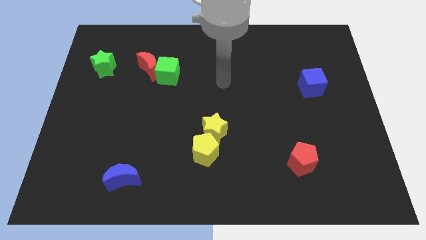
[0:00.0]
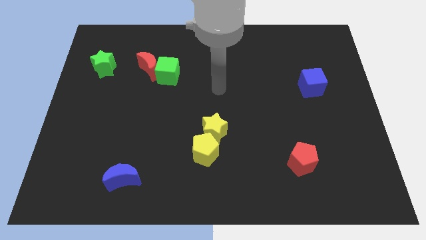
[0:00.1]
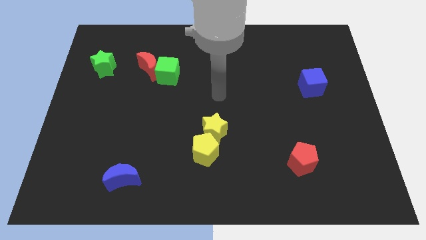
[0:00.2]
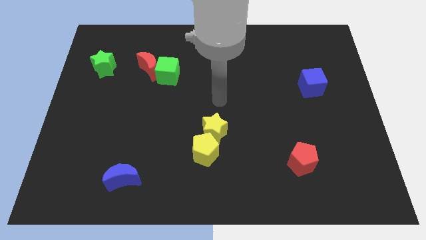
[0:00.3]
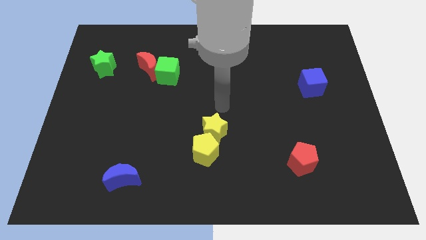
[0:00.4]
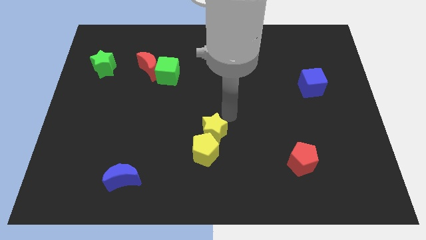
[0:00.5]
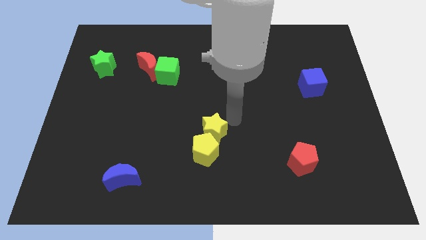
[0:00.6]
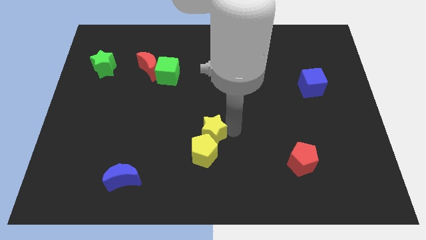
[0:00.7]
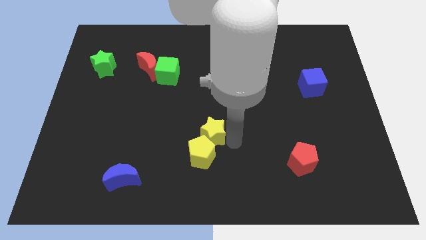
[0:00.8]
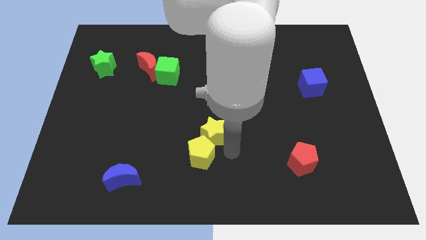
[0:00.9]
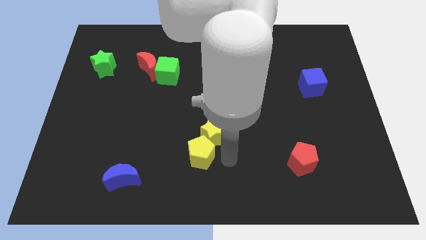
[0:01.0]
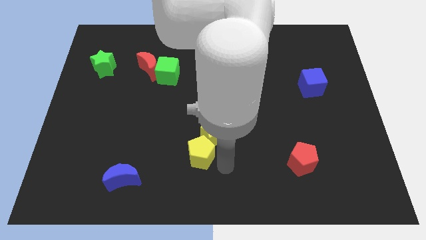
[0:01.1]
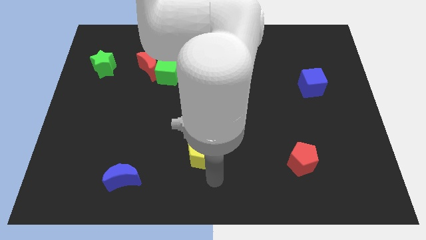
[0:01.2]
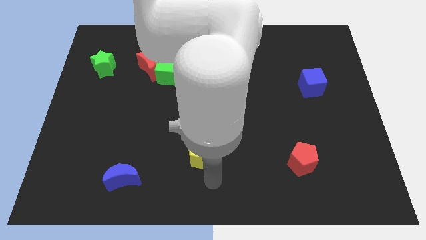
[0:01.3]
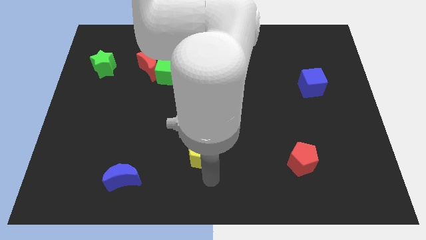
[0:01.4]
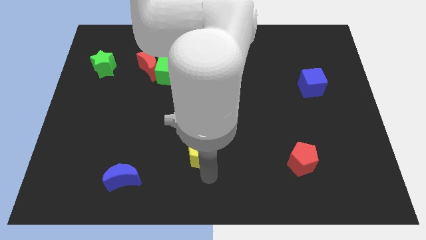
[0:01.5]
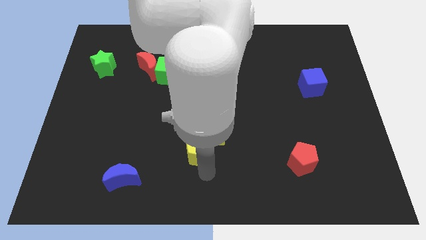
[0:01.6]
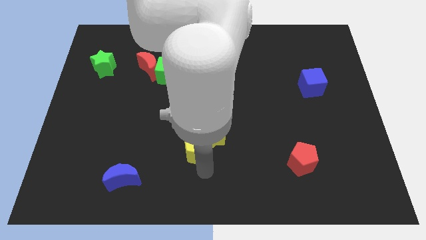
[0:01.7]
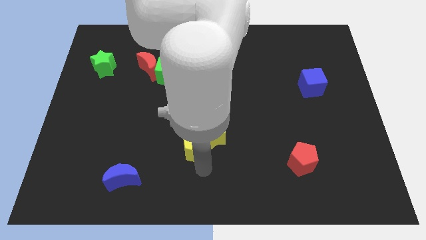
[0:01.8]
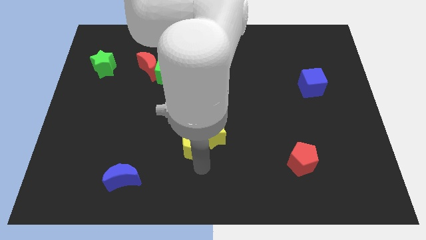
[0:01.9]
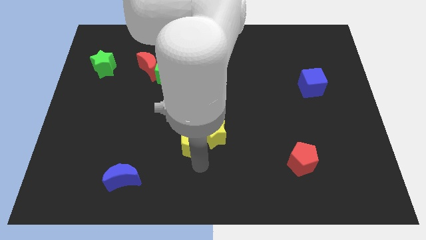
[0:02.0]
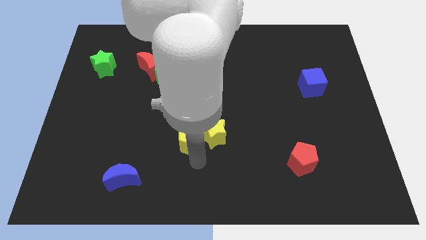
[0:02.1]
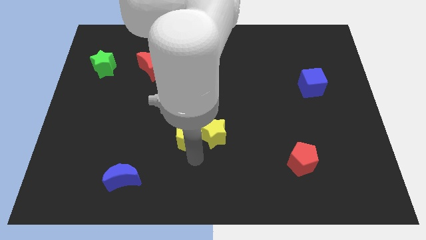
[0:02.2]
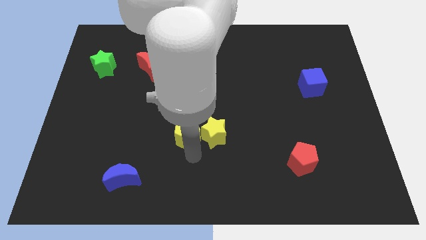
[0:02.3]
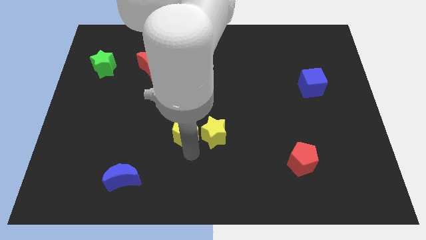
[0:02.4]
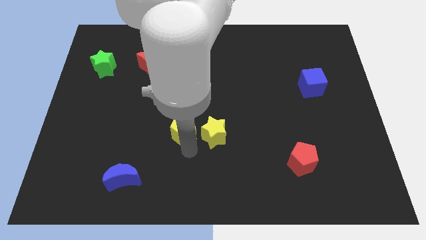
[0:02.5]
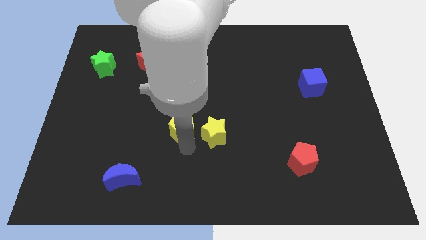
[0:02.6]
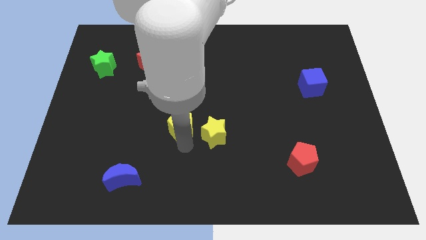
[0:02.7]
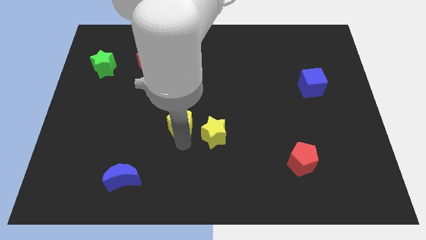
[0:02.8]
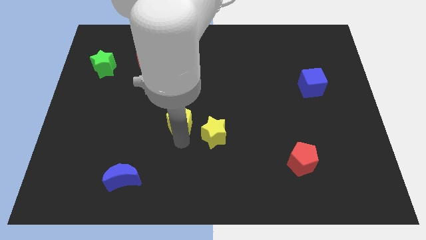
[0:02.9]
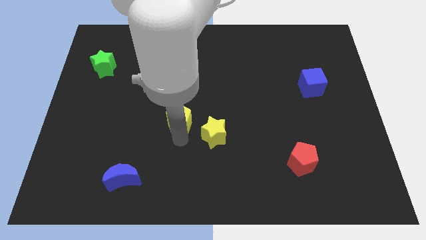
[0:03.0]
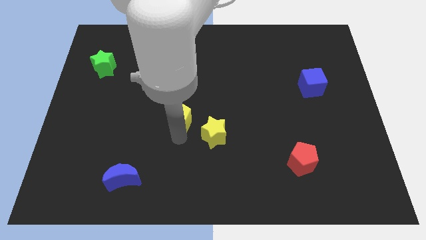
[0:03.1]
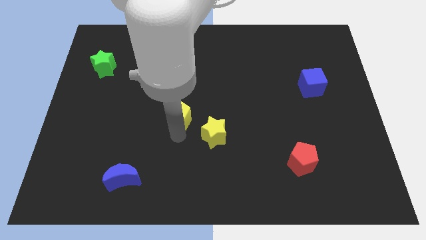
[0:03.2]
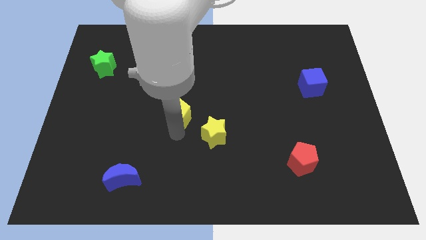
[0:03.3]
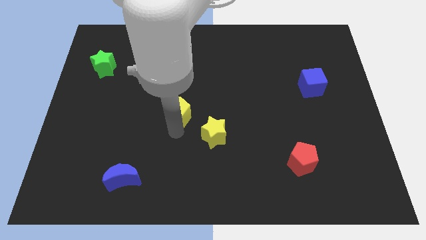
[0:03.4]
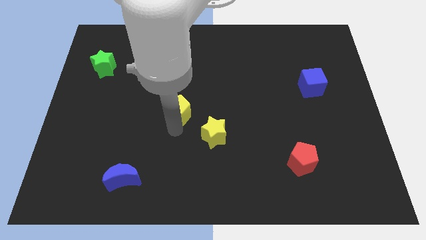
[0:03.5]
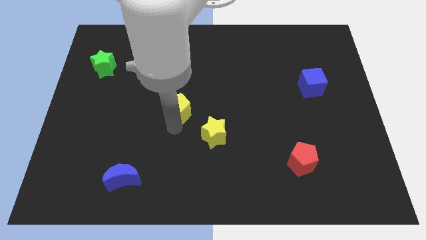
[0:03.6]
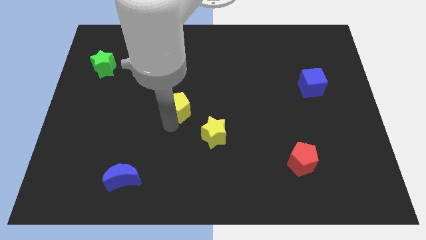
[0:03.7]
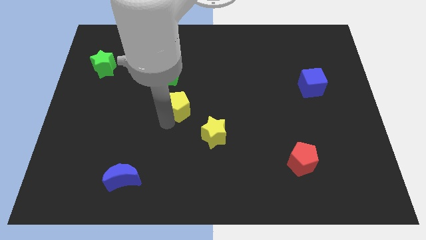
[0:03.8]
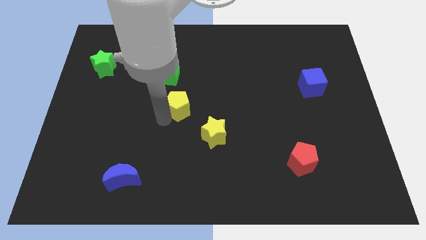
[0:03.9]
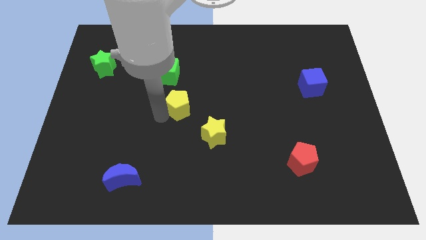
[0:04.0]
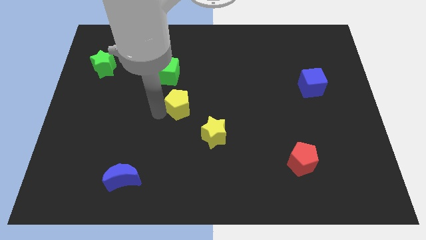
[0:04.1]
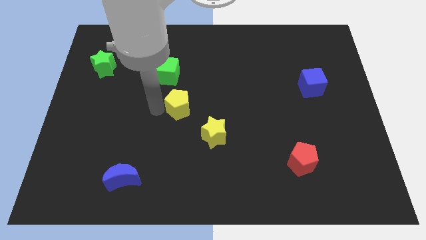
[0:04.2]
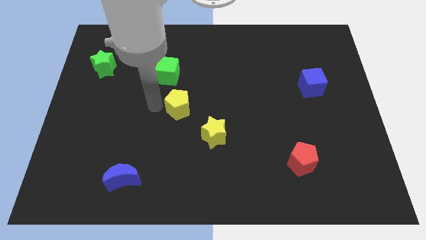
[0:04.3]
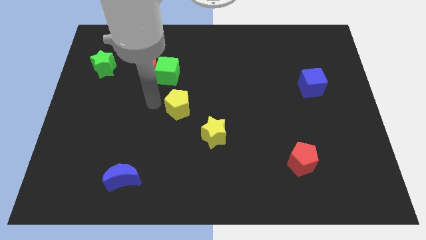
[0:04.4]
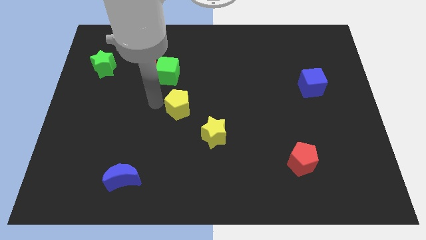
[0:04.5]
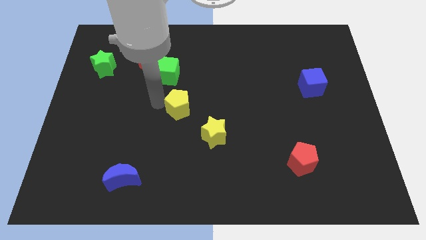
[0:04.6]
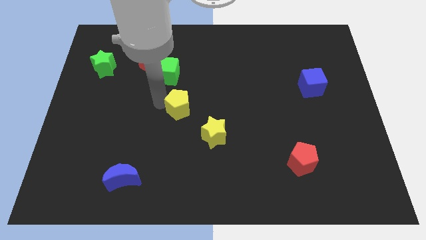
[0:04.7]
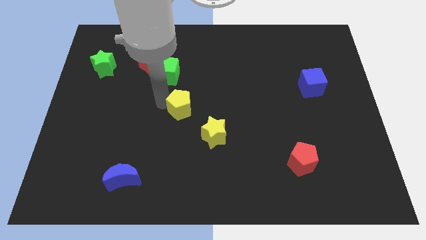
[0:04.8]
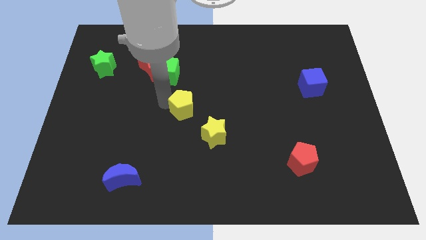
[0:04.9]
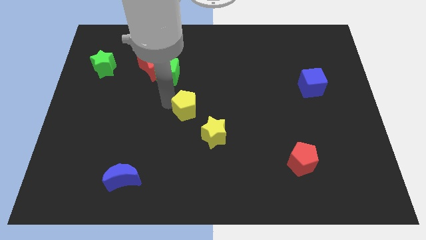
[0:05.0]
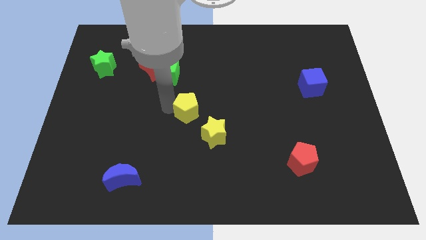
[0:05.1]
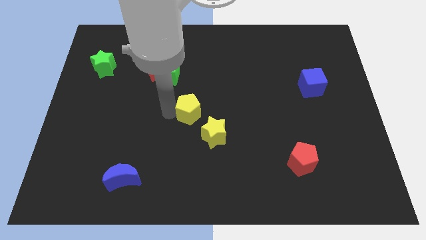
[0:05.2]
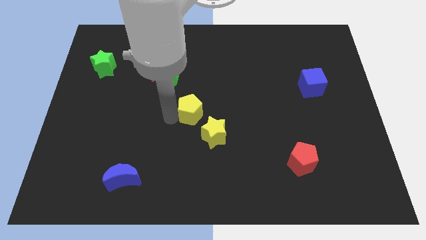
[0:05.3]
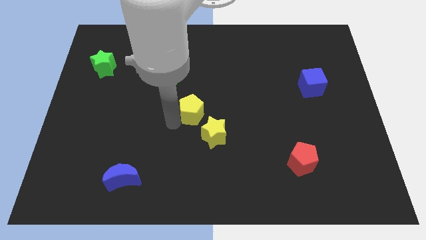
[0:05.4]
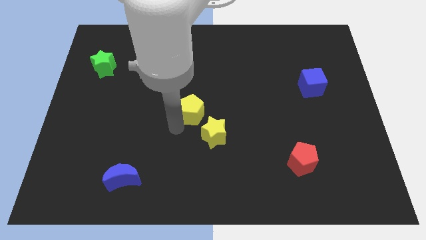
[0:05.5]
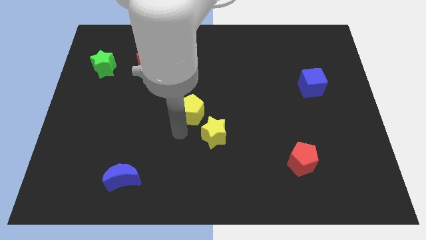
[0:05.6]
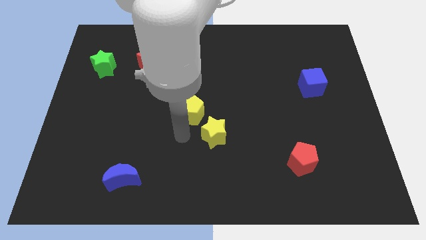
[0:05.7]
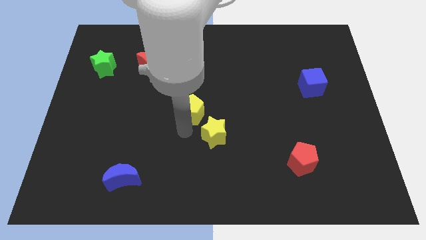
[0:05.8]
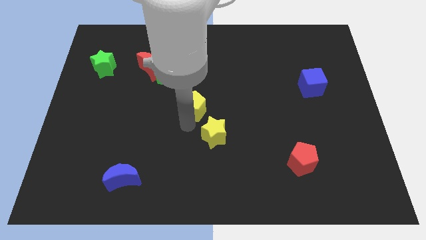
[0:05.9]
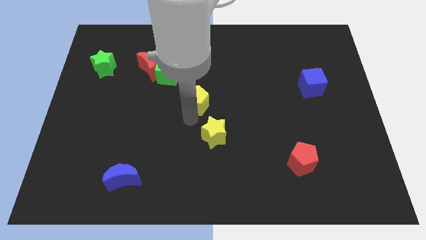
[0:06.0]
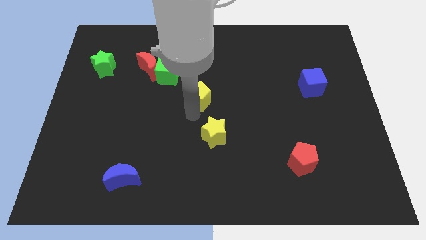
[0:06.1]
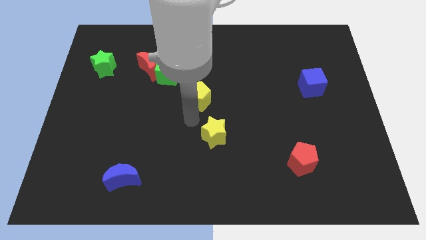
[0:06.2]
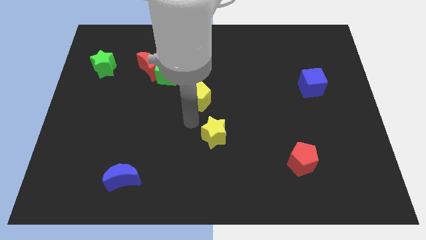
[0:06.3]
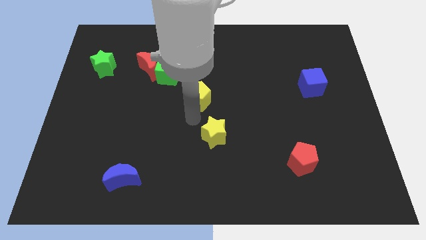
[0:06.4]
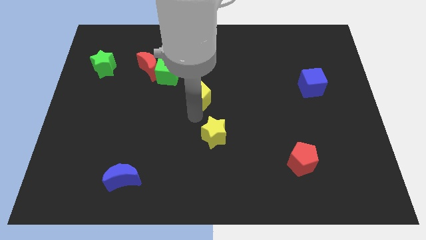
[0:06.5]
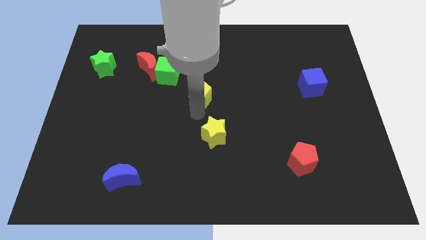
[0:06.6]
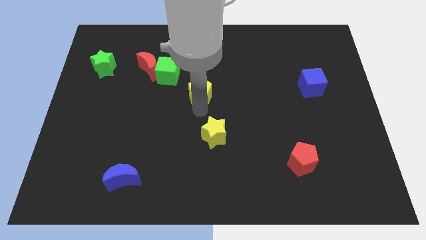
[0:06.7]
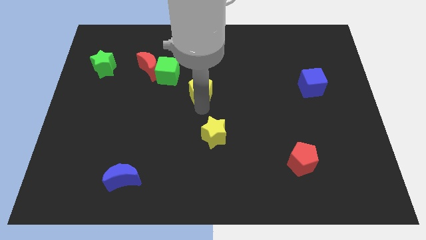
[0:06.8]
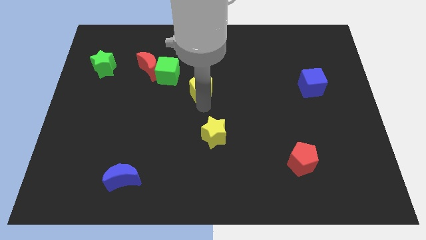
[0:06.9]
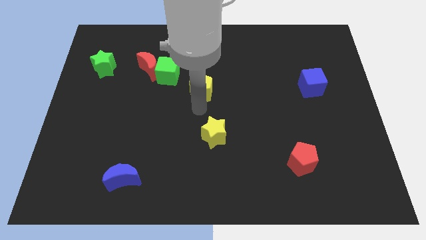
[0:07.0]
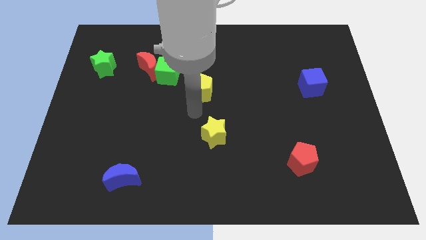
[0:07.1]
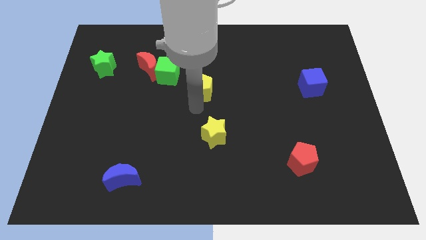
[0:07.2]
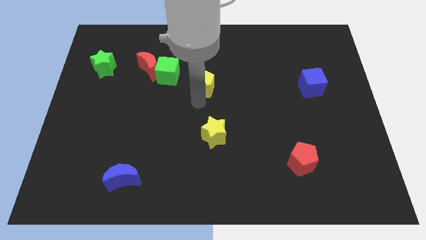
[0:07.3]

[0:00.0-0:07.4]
put the yellow pentagon right of the green cube

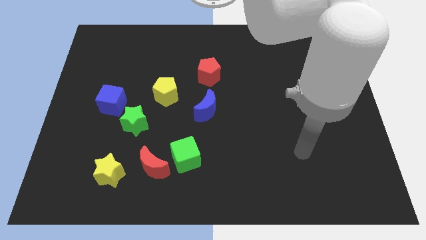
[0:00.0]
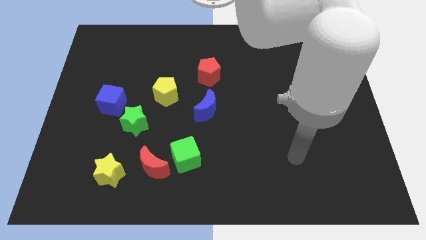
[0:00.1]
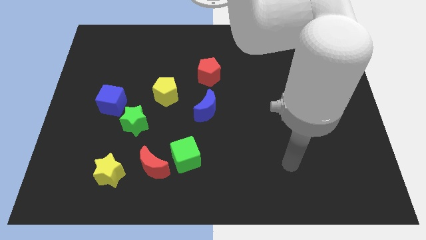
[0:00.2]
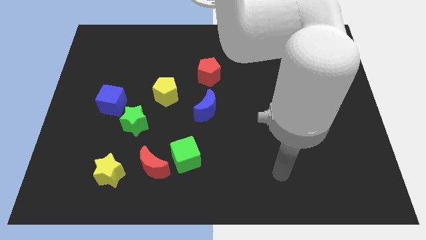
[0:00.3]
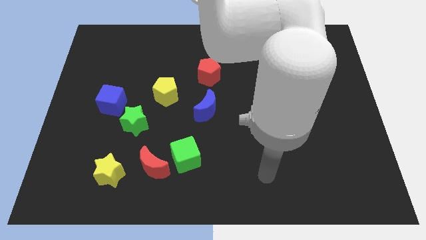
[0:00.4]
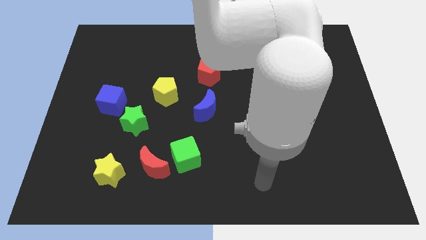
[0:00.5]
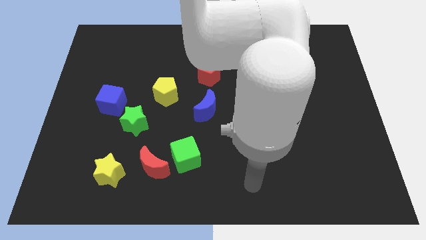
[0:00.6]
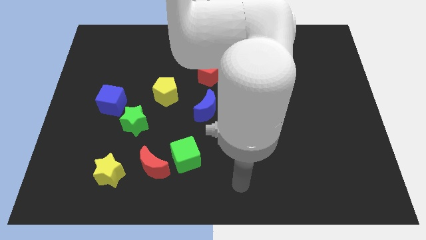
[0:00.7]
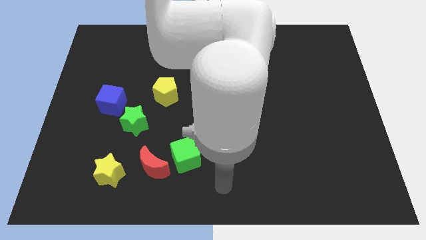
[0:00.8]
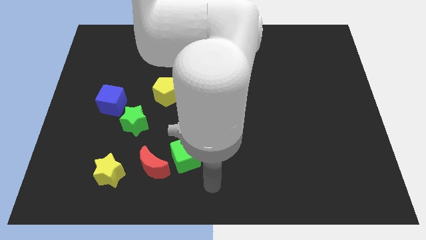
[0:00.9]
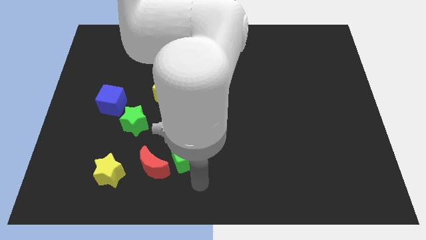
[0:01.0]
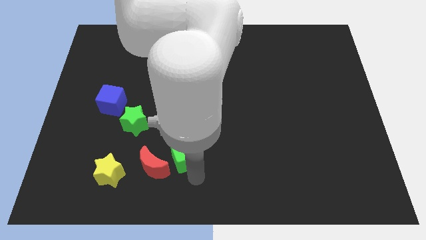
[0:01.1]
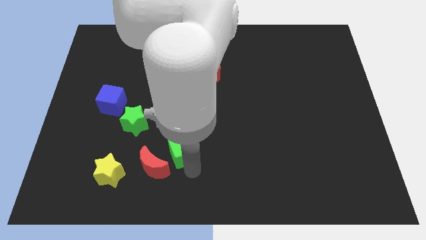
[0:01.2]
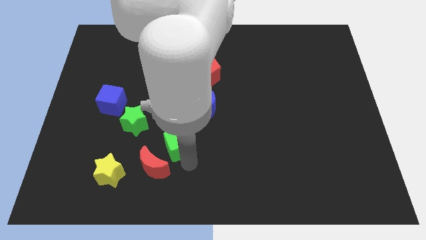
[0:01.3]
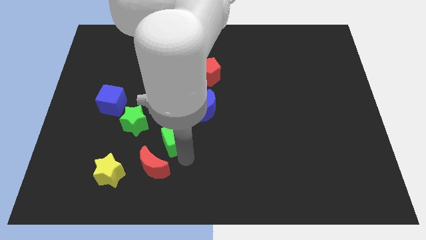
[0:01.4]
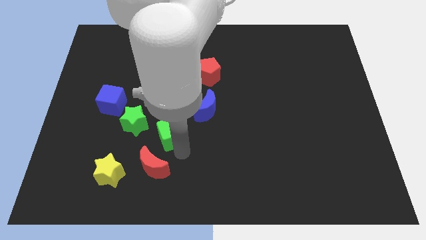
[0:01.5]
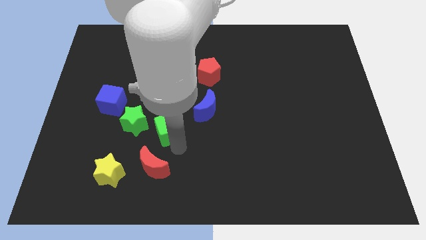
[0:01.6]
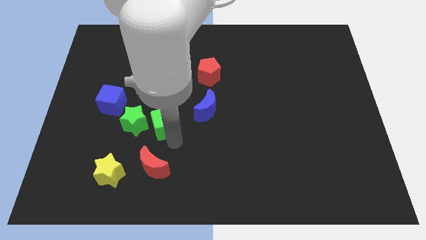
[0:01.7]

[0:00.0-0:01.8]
move the green cube to the left of the blue moon
